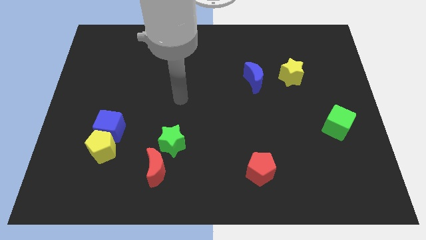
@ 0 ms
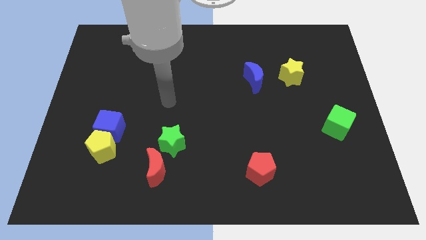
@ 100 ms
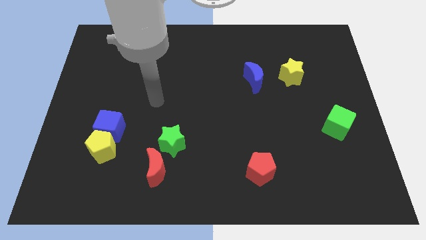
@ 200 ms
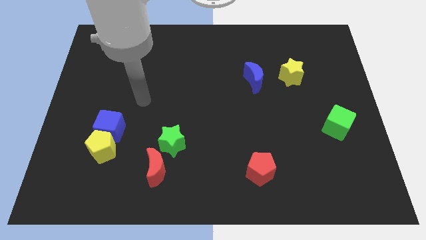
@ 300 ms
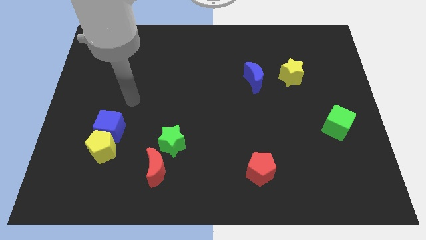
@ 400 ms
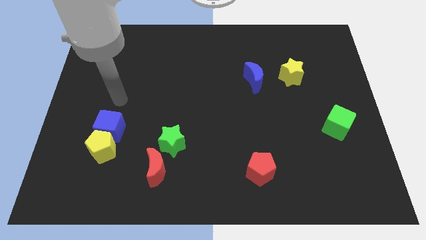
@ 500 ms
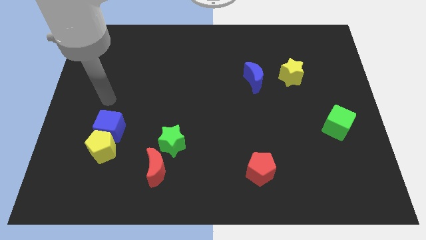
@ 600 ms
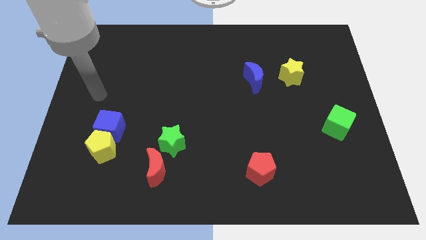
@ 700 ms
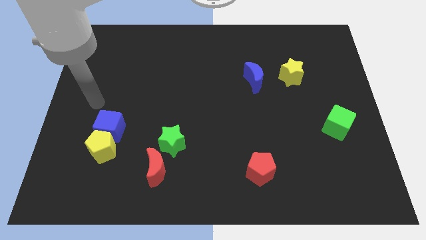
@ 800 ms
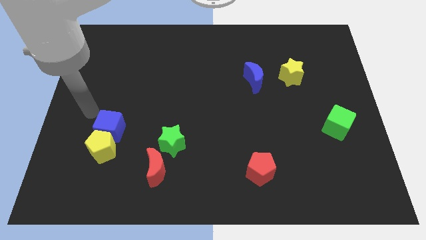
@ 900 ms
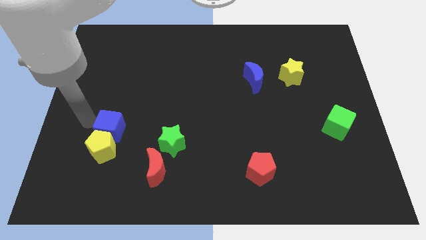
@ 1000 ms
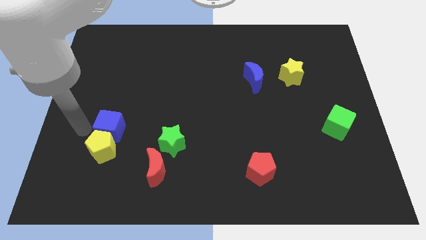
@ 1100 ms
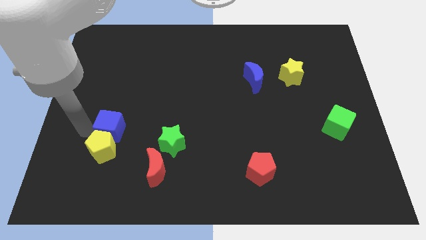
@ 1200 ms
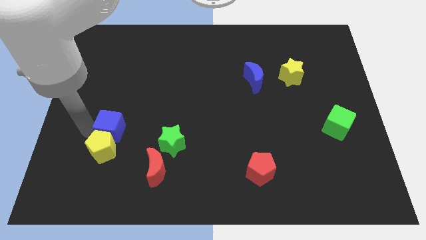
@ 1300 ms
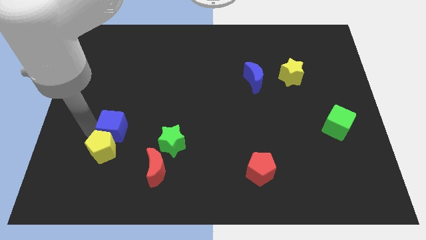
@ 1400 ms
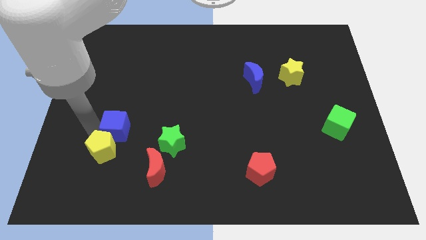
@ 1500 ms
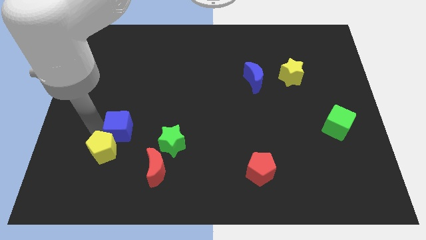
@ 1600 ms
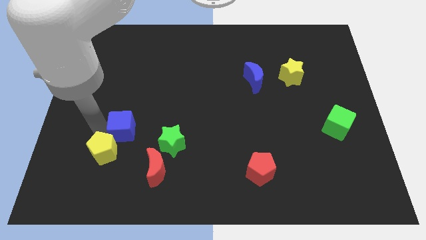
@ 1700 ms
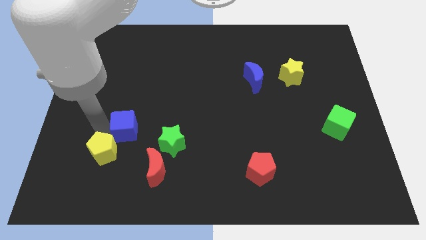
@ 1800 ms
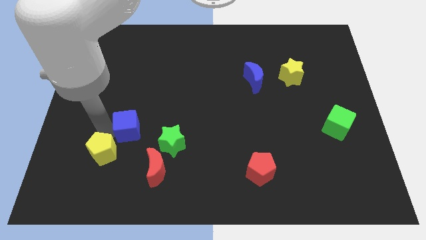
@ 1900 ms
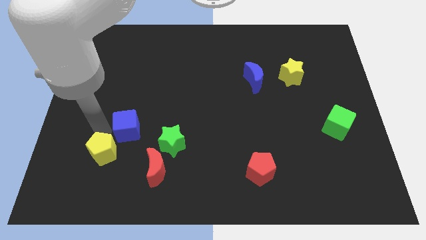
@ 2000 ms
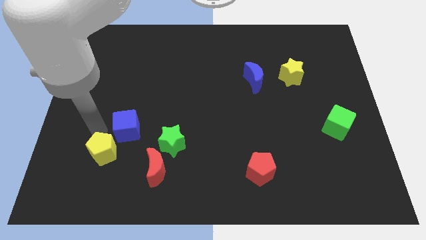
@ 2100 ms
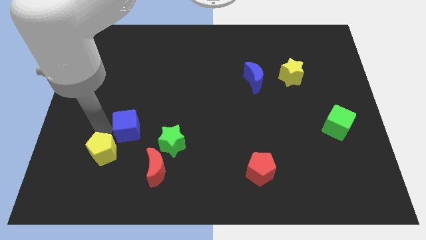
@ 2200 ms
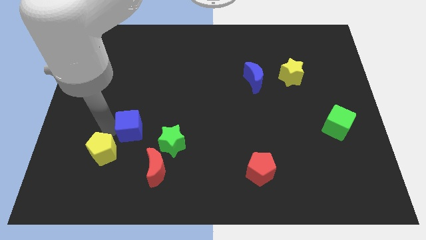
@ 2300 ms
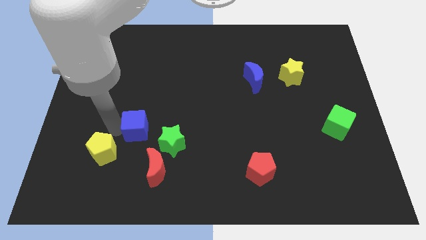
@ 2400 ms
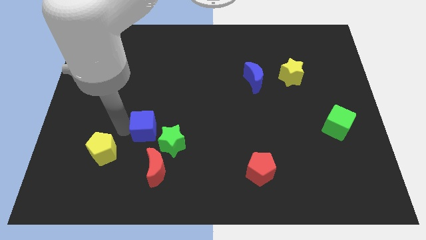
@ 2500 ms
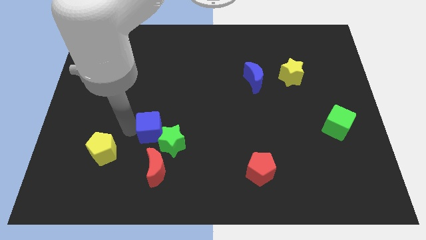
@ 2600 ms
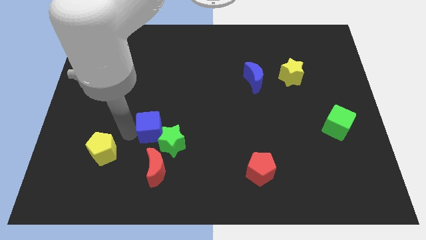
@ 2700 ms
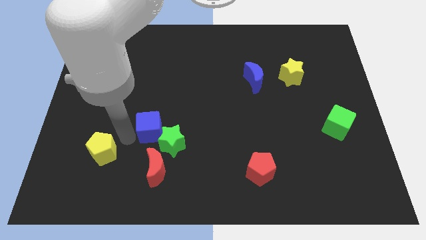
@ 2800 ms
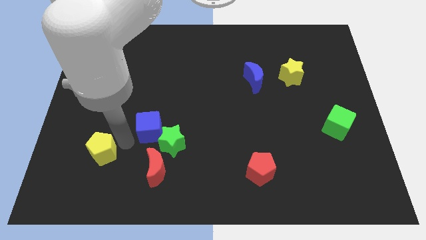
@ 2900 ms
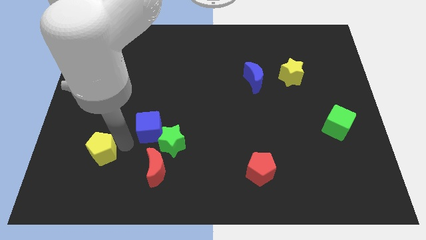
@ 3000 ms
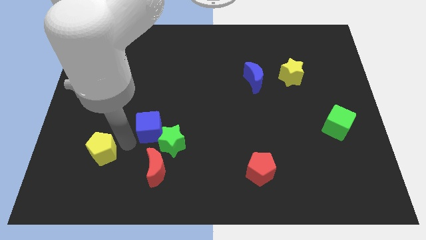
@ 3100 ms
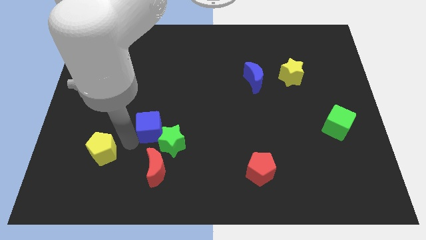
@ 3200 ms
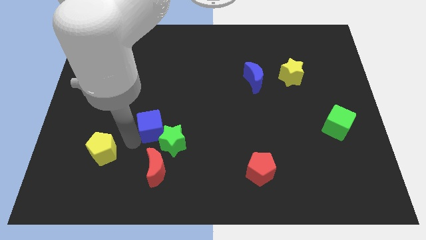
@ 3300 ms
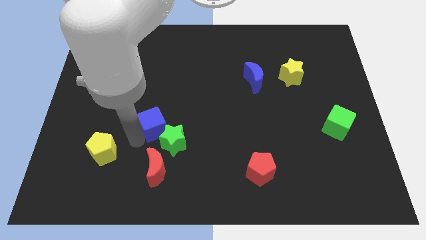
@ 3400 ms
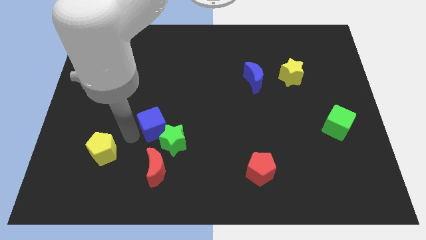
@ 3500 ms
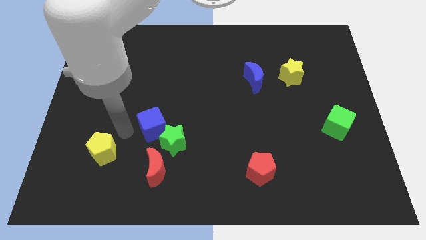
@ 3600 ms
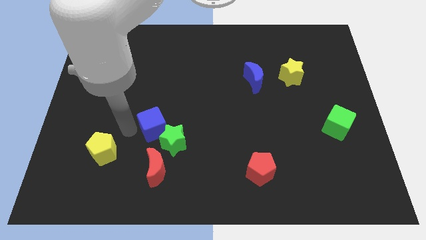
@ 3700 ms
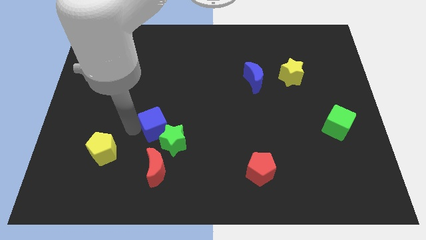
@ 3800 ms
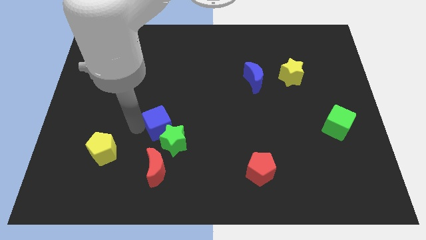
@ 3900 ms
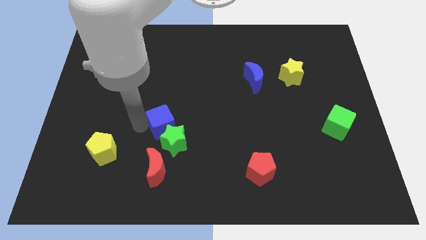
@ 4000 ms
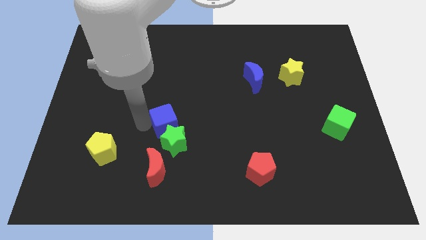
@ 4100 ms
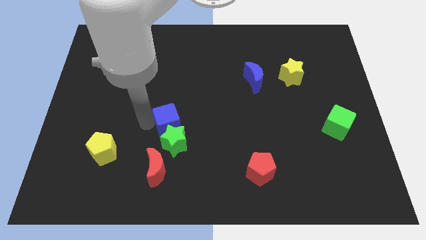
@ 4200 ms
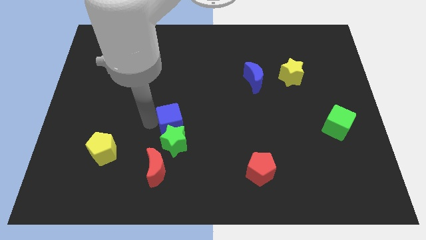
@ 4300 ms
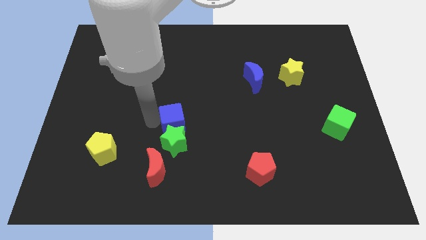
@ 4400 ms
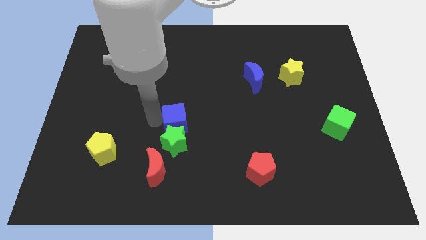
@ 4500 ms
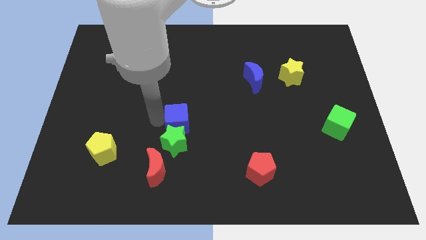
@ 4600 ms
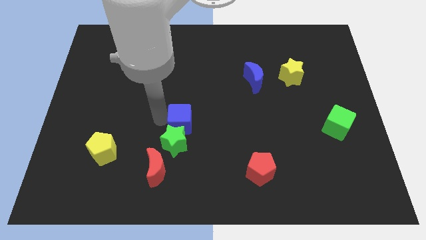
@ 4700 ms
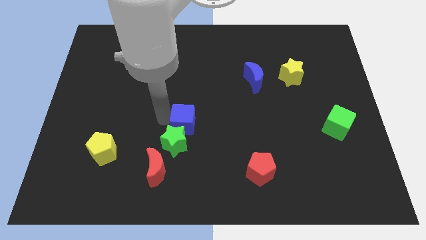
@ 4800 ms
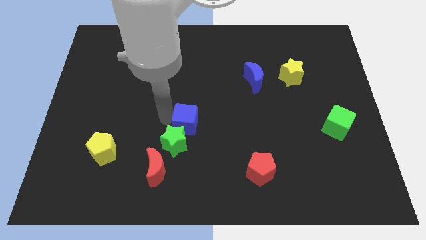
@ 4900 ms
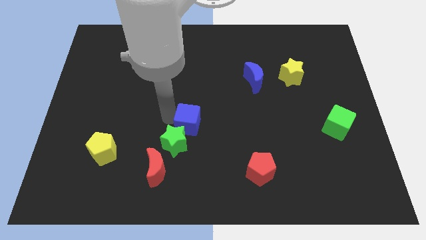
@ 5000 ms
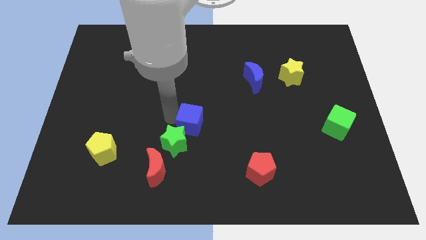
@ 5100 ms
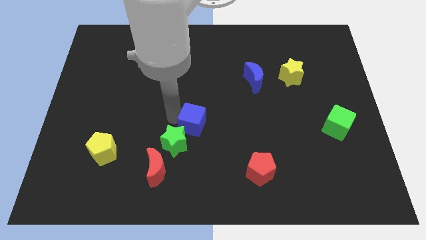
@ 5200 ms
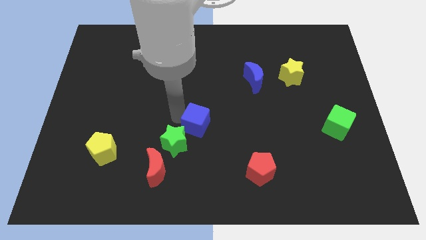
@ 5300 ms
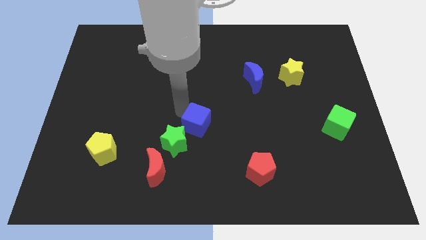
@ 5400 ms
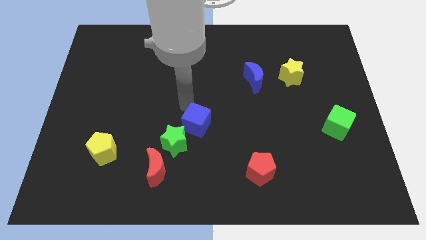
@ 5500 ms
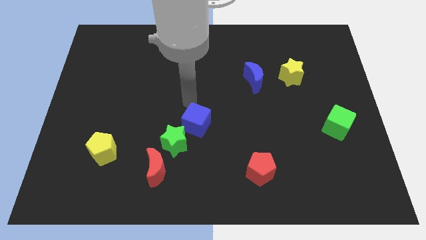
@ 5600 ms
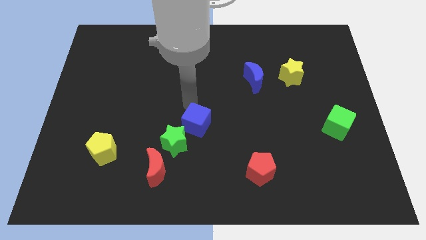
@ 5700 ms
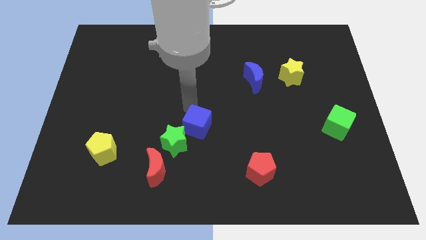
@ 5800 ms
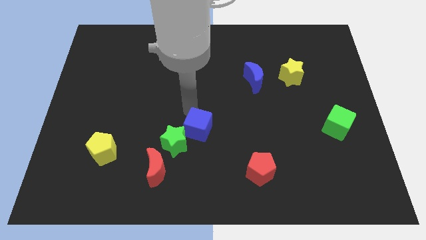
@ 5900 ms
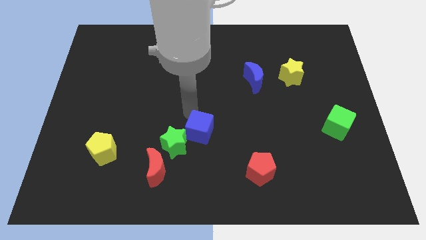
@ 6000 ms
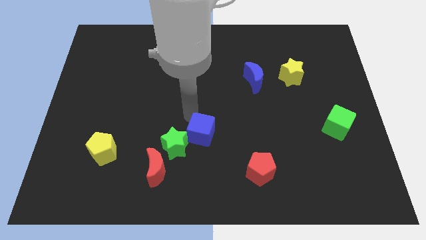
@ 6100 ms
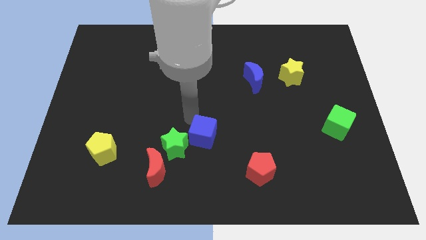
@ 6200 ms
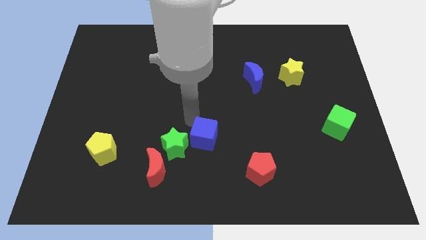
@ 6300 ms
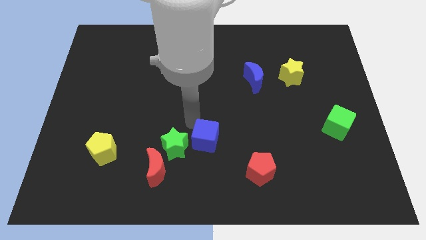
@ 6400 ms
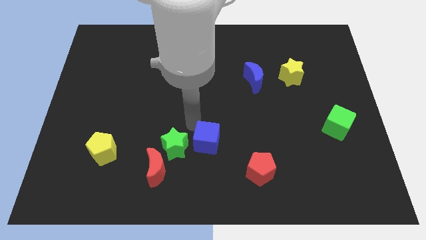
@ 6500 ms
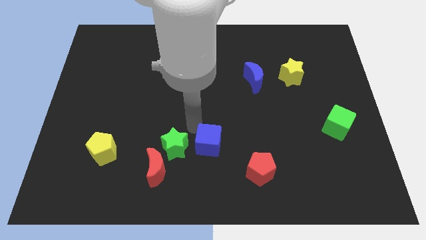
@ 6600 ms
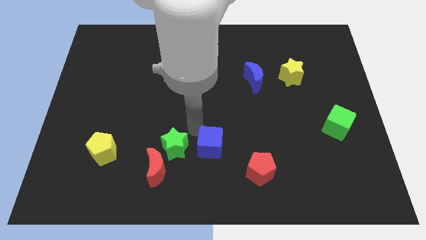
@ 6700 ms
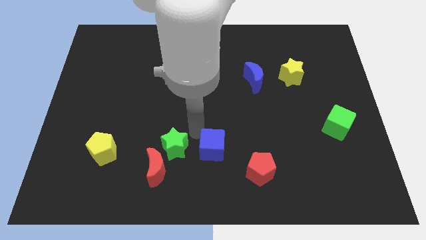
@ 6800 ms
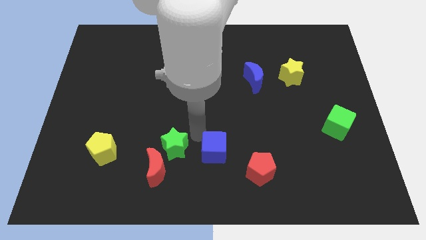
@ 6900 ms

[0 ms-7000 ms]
slide the blue cube just left of the red pentagon

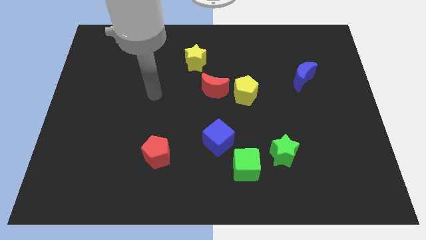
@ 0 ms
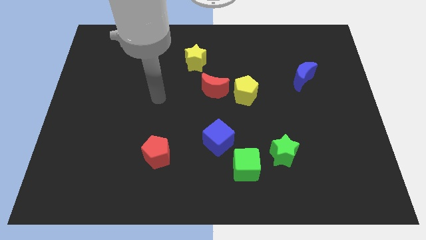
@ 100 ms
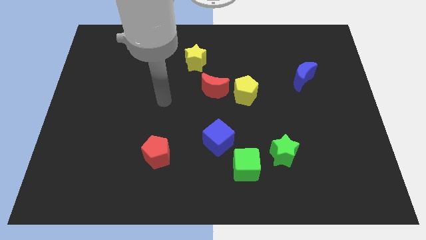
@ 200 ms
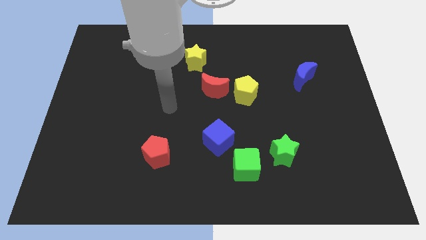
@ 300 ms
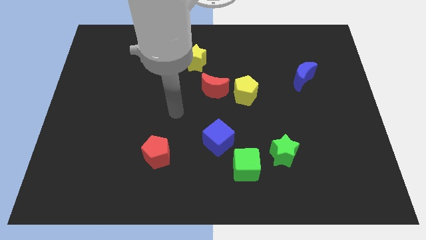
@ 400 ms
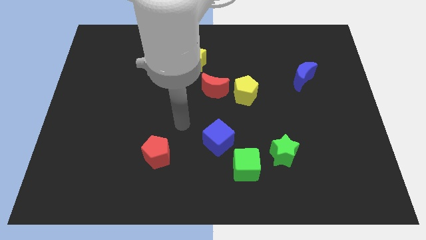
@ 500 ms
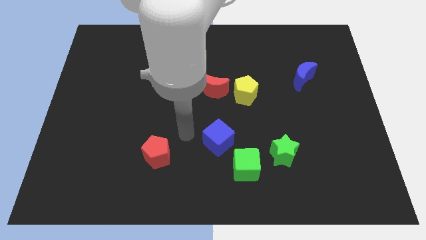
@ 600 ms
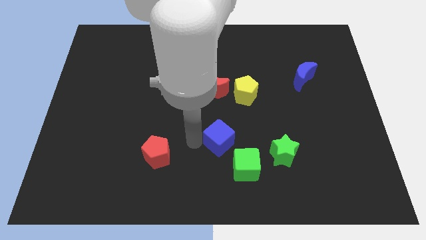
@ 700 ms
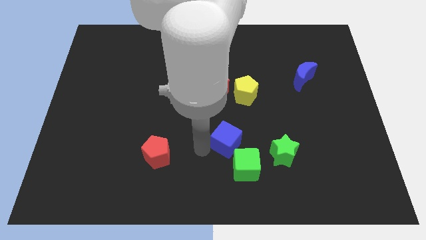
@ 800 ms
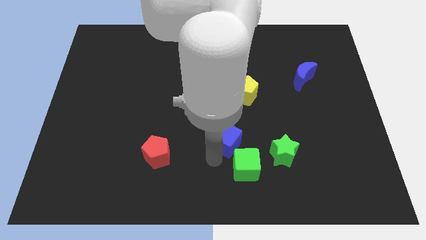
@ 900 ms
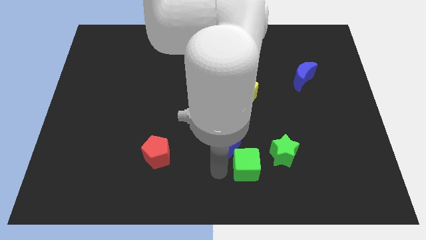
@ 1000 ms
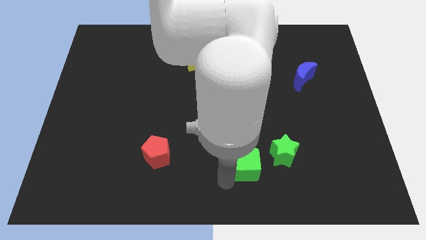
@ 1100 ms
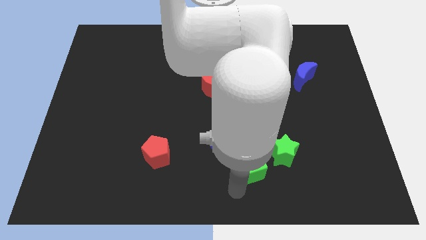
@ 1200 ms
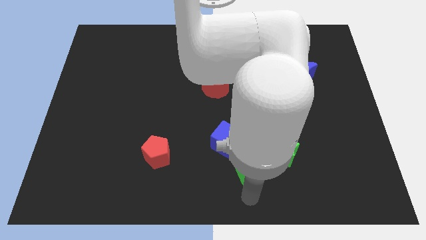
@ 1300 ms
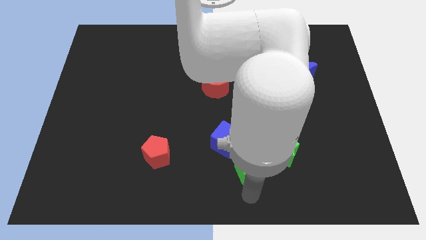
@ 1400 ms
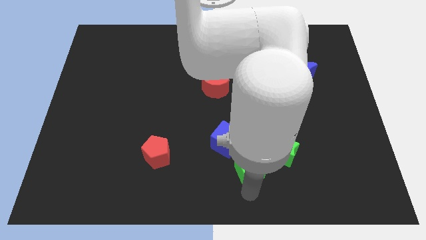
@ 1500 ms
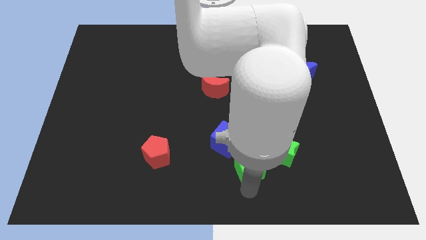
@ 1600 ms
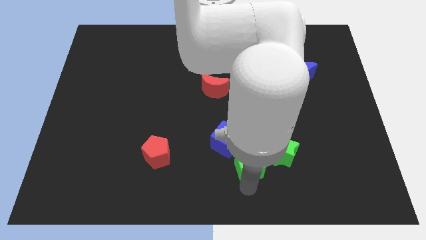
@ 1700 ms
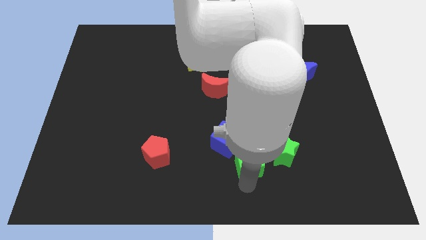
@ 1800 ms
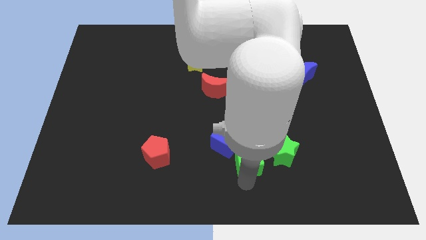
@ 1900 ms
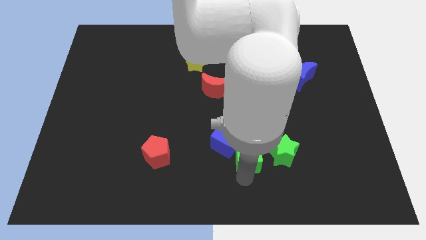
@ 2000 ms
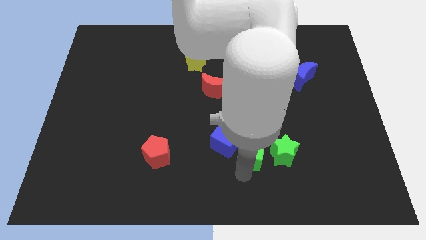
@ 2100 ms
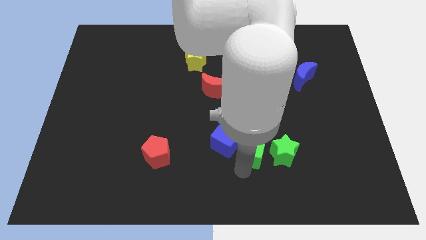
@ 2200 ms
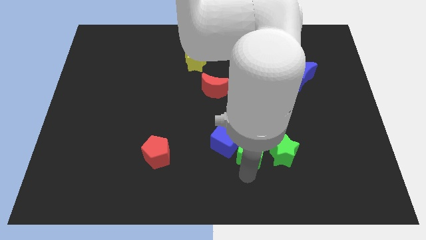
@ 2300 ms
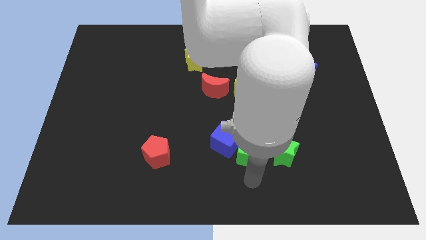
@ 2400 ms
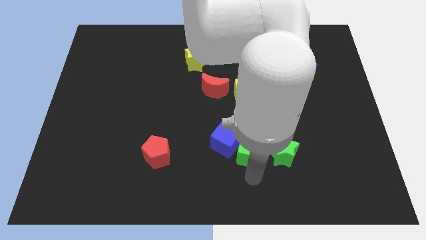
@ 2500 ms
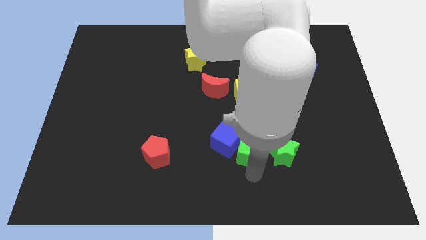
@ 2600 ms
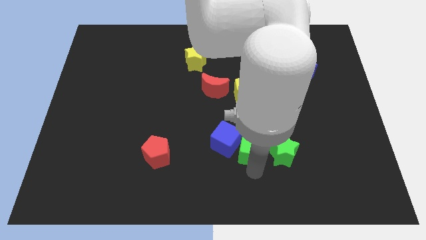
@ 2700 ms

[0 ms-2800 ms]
move the green cube to the bottom of the yellow pentagon
